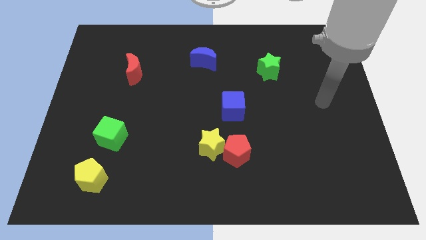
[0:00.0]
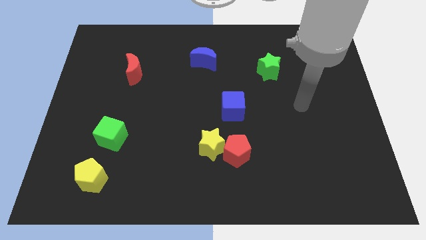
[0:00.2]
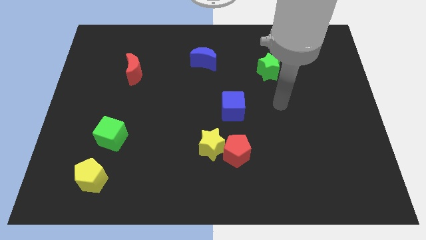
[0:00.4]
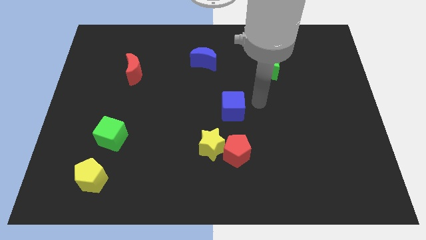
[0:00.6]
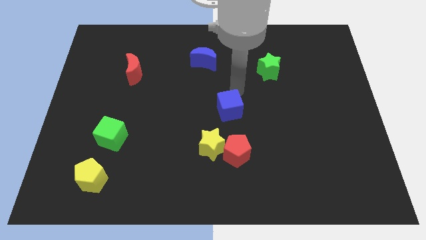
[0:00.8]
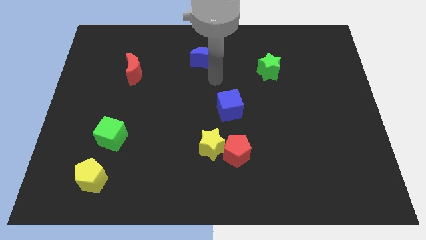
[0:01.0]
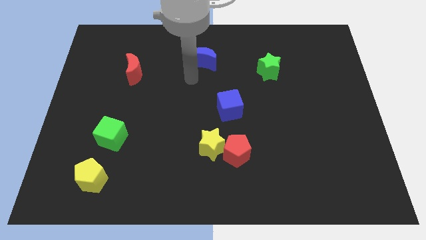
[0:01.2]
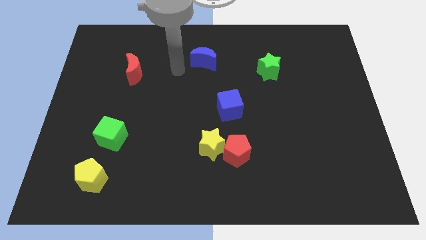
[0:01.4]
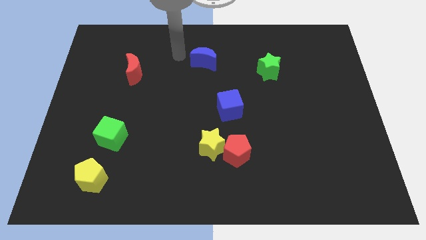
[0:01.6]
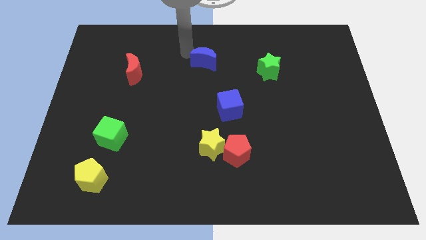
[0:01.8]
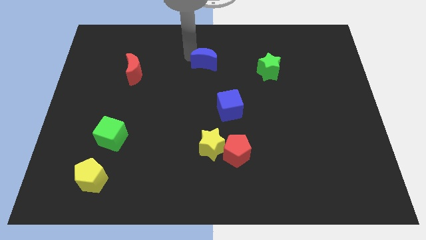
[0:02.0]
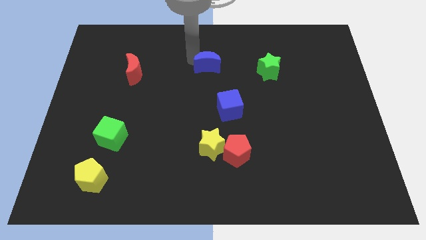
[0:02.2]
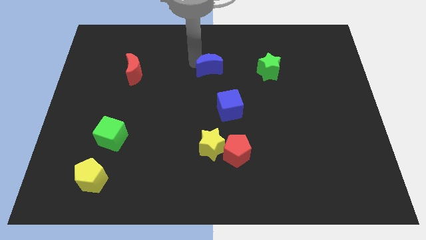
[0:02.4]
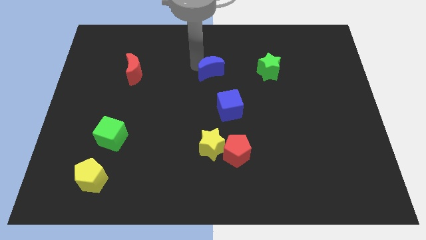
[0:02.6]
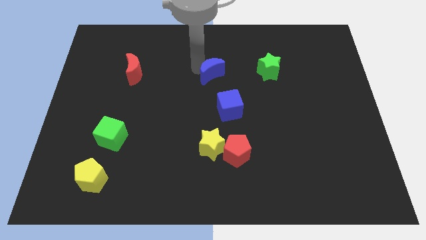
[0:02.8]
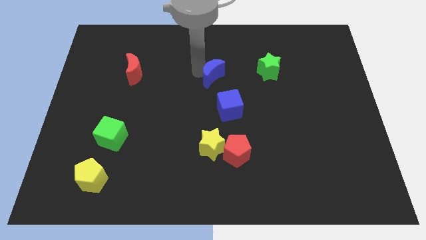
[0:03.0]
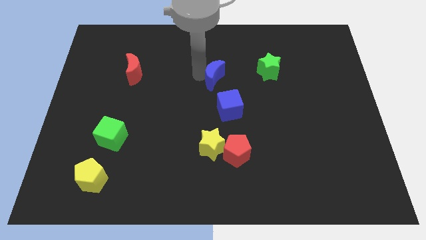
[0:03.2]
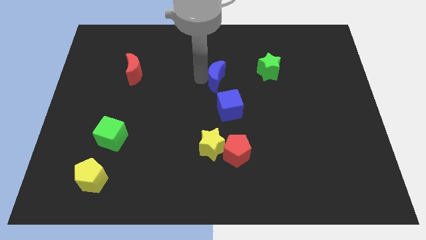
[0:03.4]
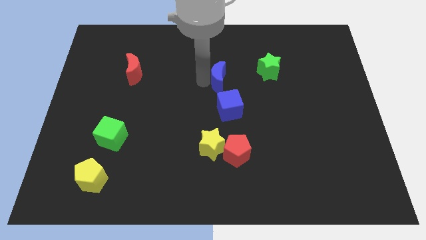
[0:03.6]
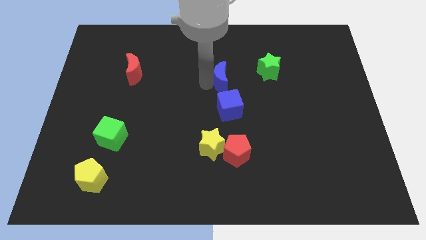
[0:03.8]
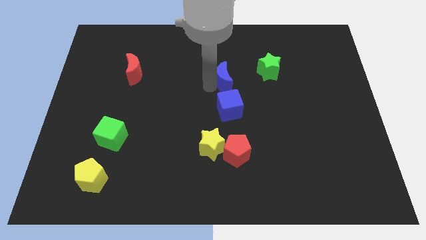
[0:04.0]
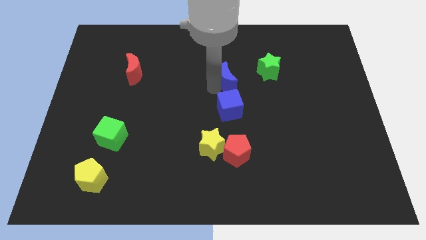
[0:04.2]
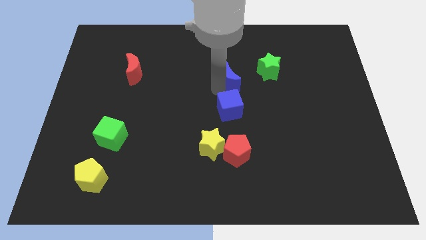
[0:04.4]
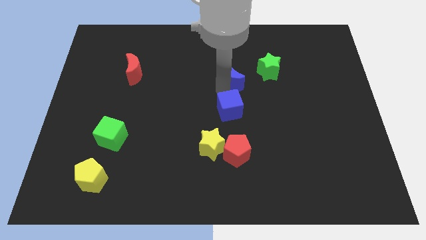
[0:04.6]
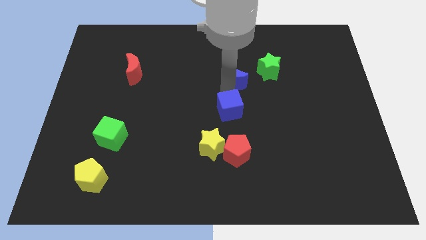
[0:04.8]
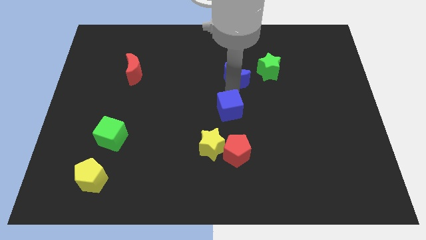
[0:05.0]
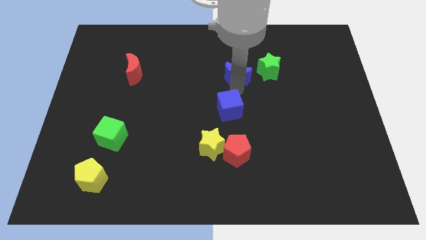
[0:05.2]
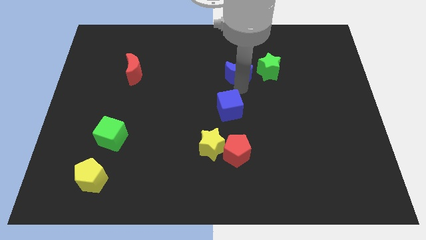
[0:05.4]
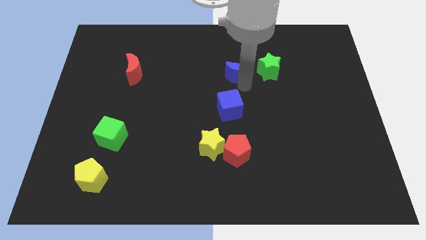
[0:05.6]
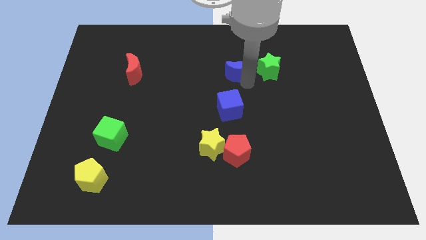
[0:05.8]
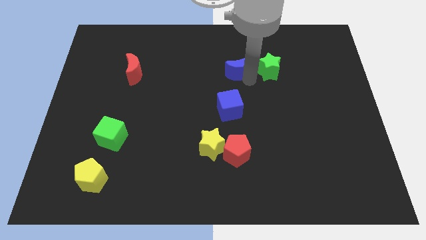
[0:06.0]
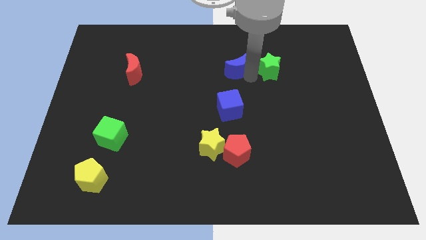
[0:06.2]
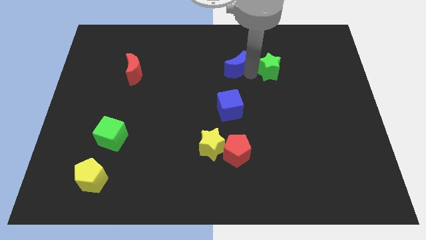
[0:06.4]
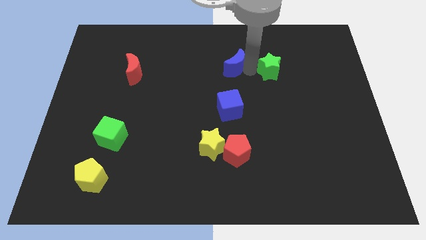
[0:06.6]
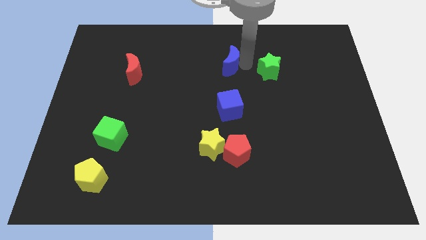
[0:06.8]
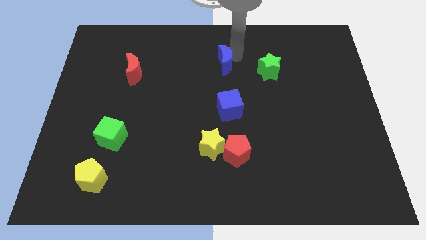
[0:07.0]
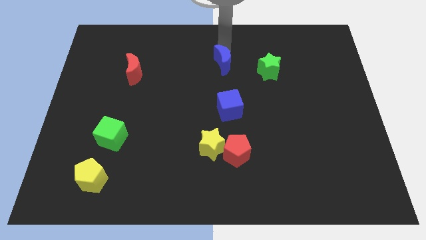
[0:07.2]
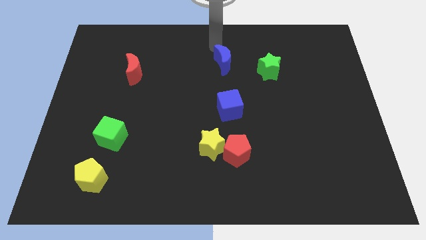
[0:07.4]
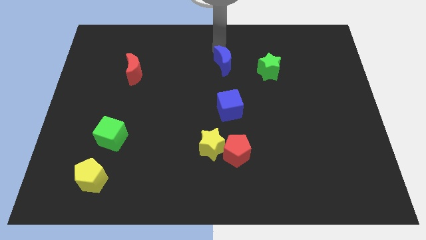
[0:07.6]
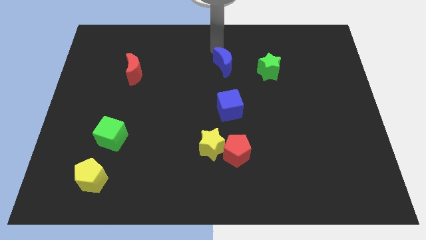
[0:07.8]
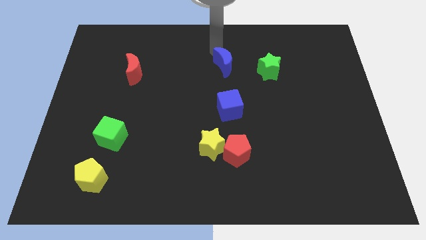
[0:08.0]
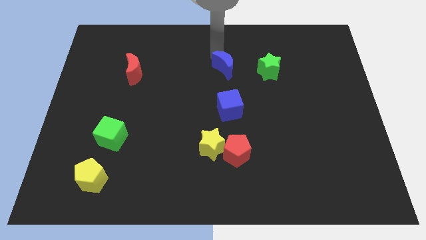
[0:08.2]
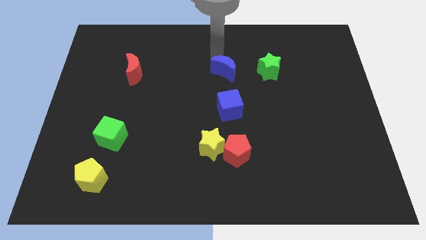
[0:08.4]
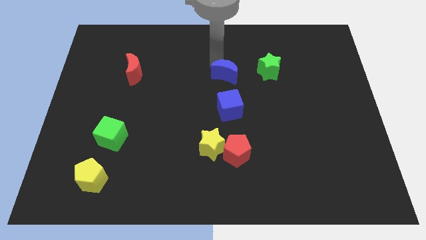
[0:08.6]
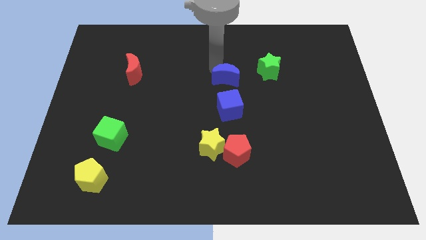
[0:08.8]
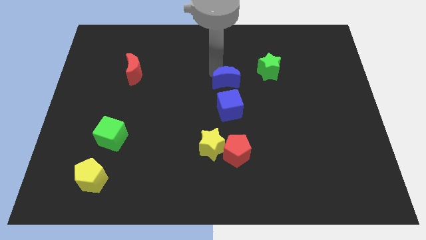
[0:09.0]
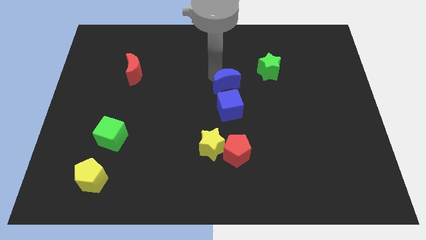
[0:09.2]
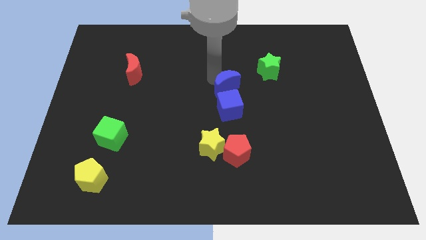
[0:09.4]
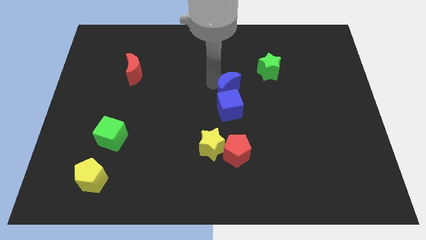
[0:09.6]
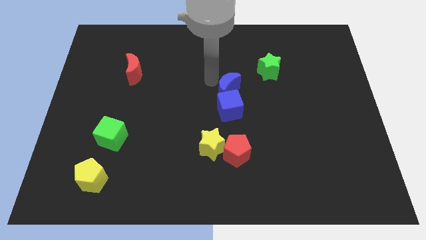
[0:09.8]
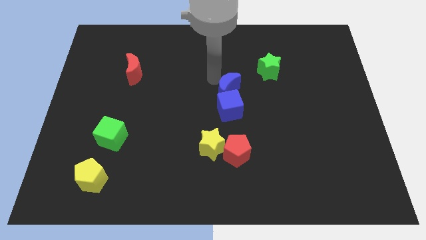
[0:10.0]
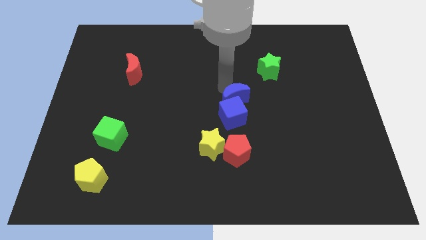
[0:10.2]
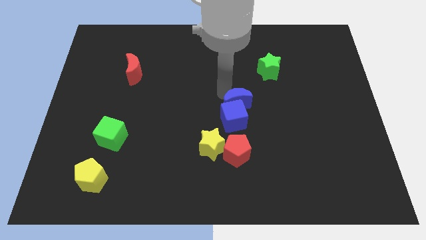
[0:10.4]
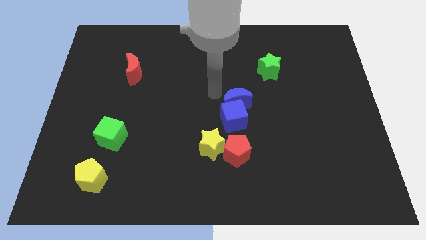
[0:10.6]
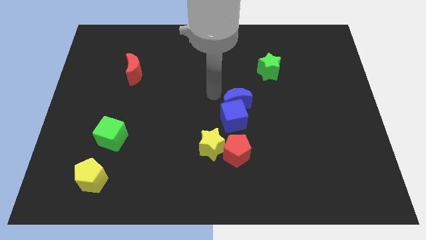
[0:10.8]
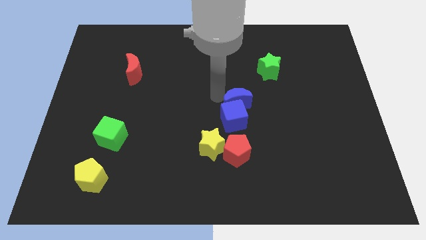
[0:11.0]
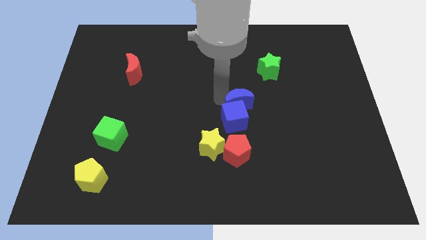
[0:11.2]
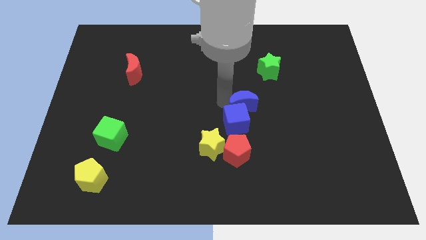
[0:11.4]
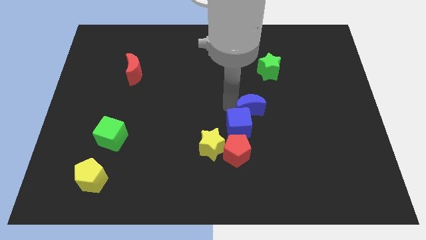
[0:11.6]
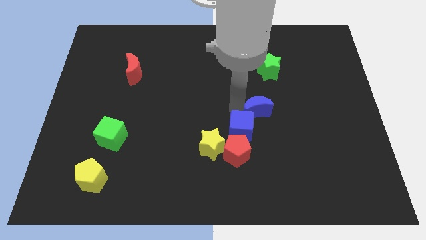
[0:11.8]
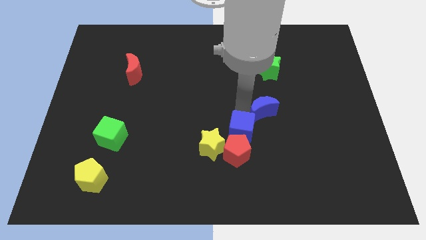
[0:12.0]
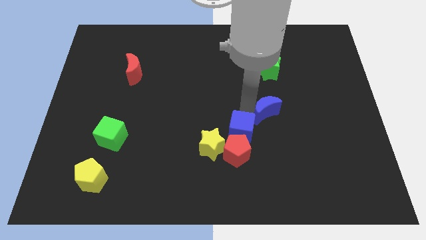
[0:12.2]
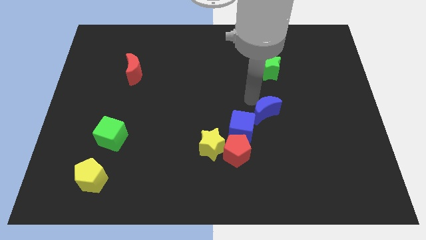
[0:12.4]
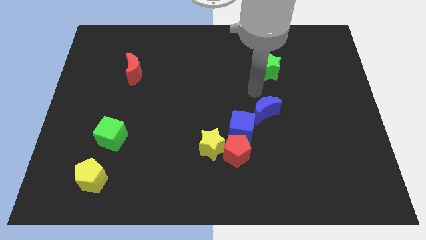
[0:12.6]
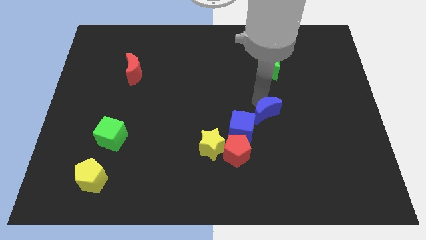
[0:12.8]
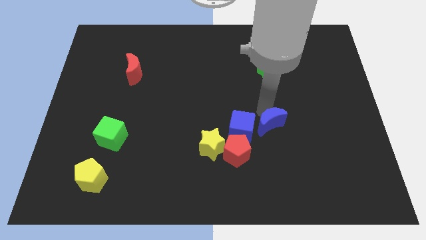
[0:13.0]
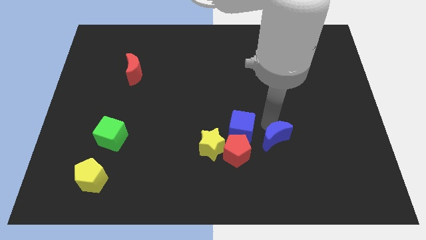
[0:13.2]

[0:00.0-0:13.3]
slide the blue moon to the right side of the red pentagon
